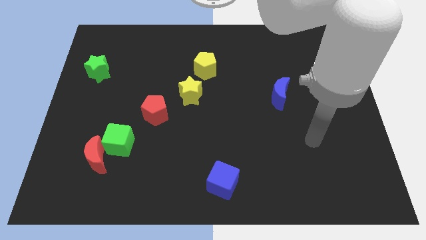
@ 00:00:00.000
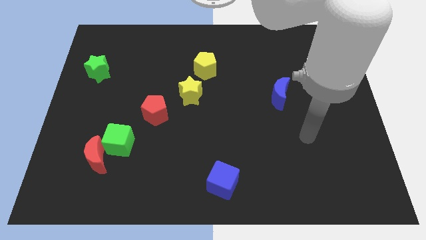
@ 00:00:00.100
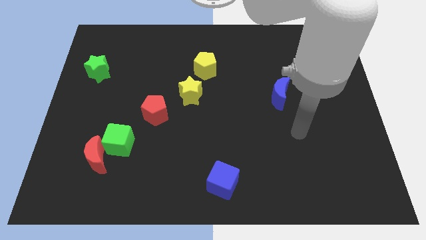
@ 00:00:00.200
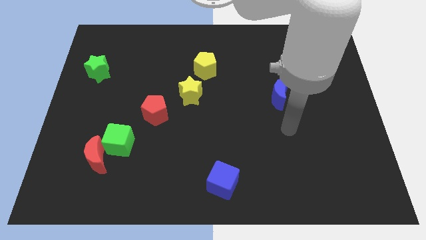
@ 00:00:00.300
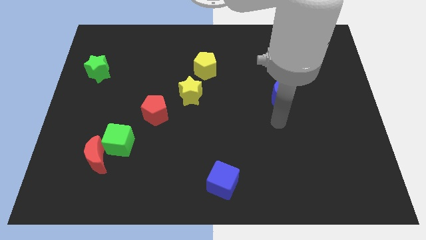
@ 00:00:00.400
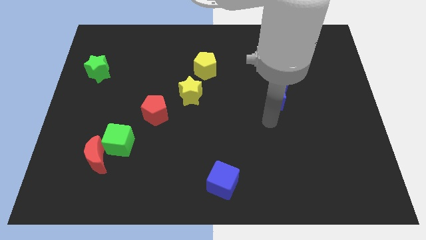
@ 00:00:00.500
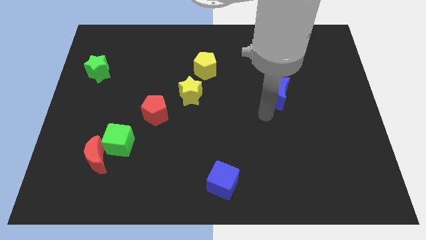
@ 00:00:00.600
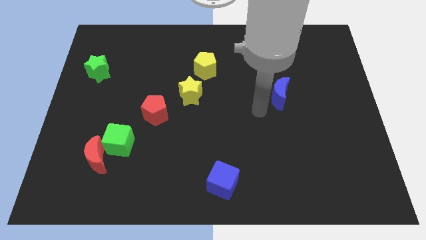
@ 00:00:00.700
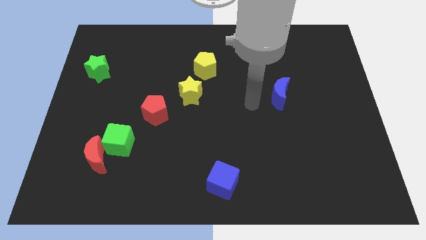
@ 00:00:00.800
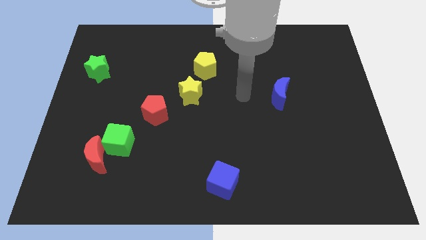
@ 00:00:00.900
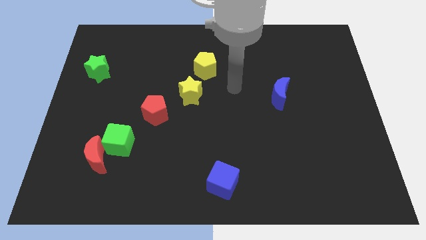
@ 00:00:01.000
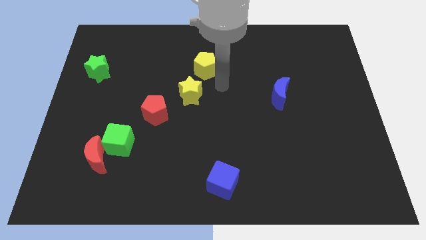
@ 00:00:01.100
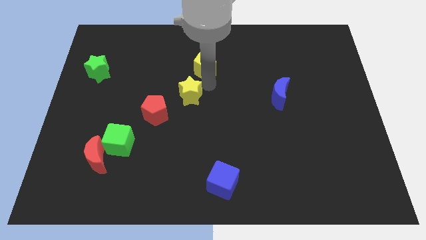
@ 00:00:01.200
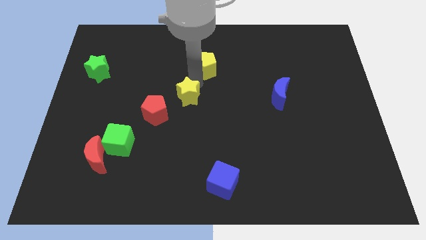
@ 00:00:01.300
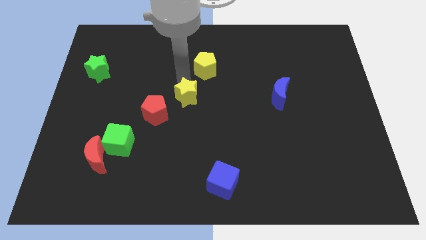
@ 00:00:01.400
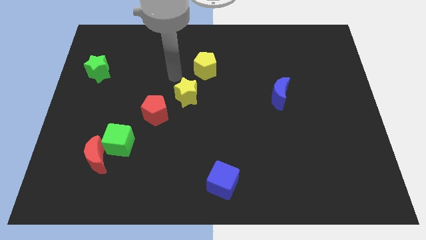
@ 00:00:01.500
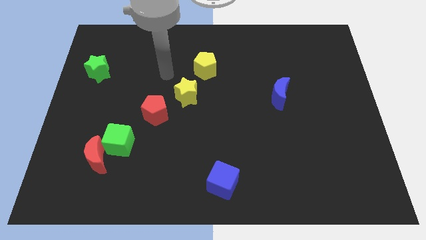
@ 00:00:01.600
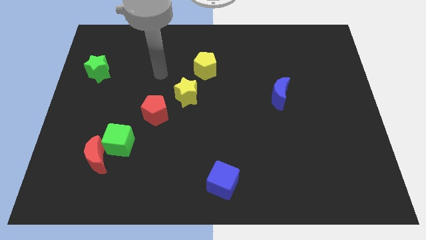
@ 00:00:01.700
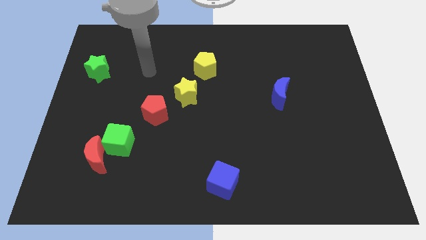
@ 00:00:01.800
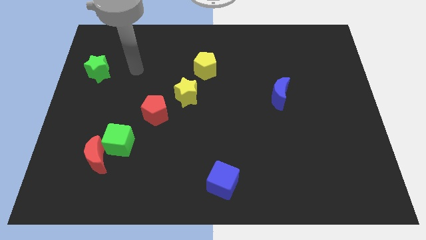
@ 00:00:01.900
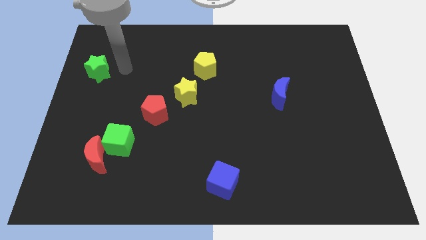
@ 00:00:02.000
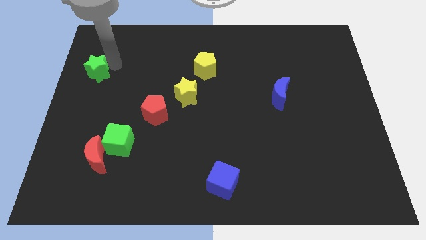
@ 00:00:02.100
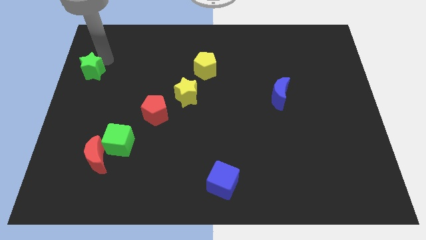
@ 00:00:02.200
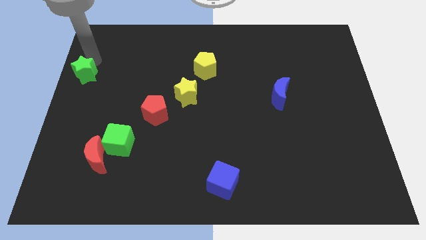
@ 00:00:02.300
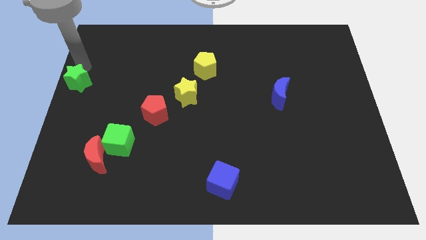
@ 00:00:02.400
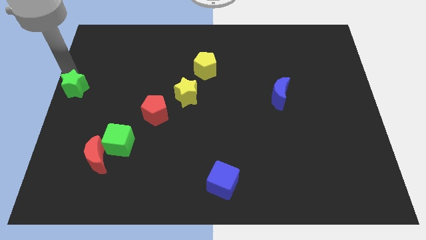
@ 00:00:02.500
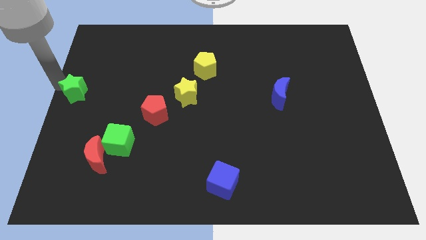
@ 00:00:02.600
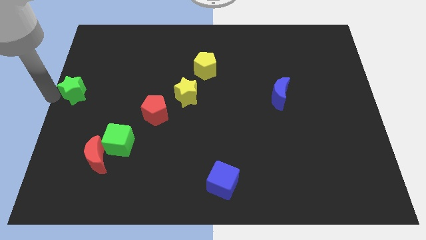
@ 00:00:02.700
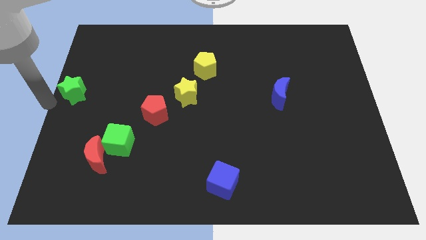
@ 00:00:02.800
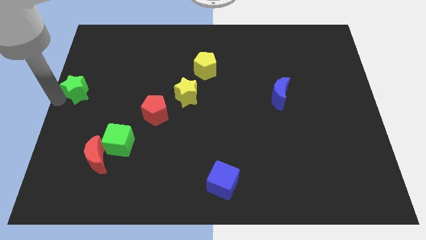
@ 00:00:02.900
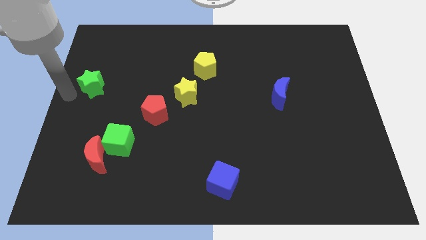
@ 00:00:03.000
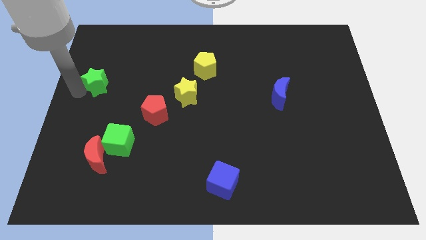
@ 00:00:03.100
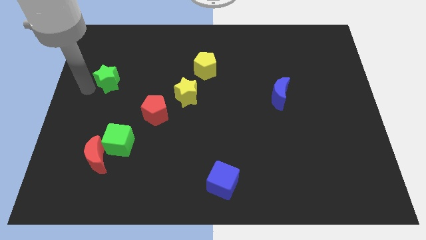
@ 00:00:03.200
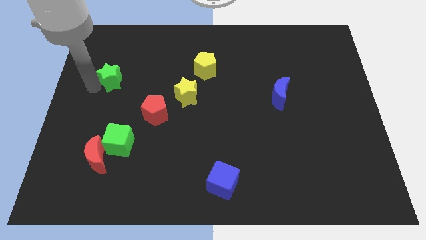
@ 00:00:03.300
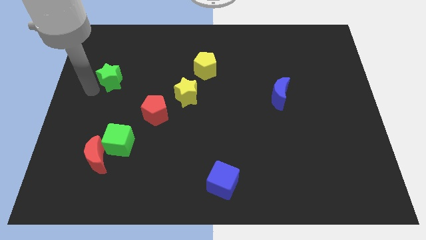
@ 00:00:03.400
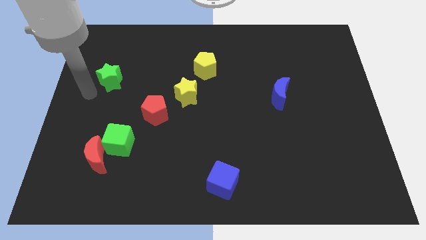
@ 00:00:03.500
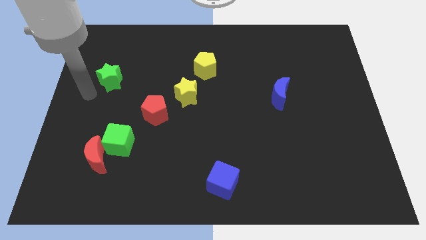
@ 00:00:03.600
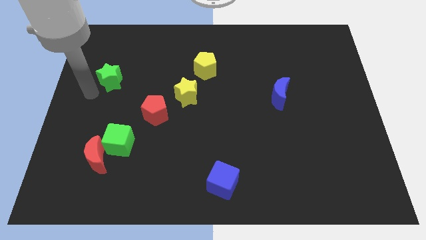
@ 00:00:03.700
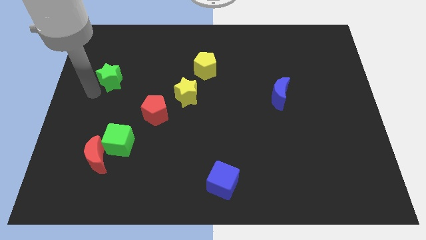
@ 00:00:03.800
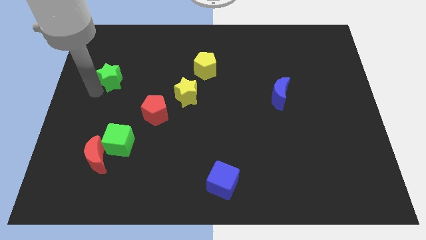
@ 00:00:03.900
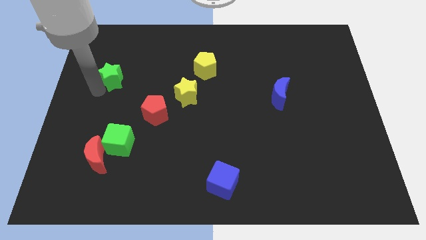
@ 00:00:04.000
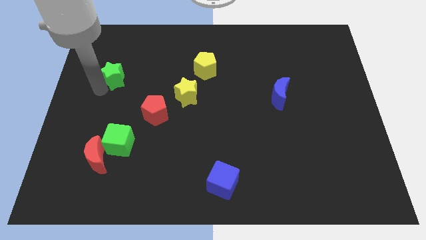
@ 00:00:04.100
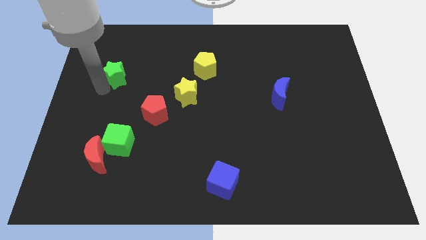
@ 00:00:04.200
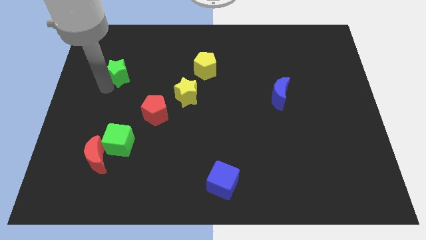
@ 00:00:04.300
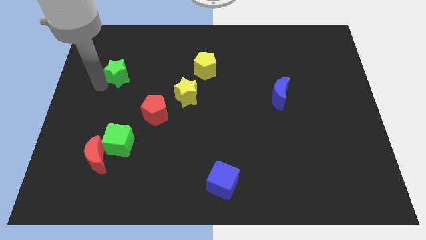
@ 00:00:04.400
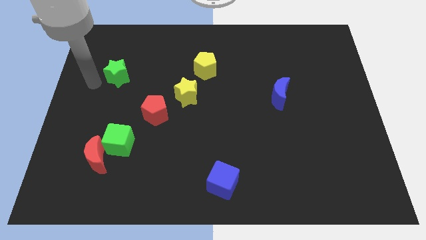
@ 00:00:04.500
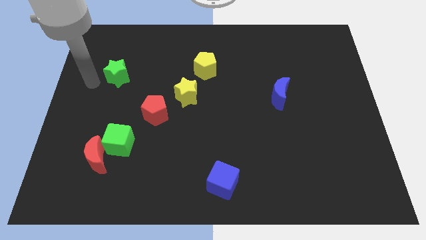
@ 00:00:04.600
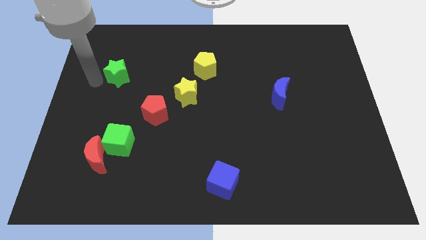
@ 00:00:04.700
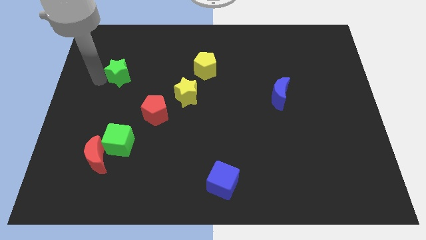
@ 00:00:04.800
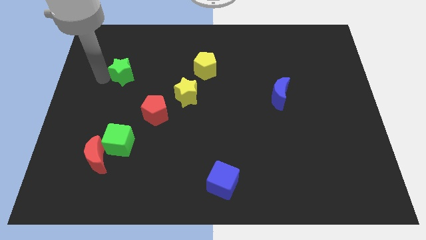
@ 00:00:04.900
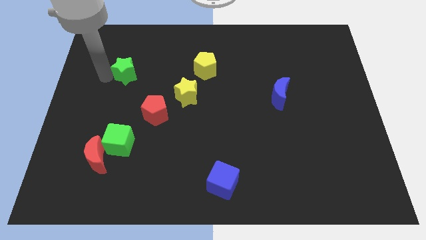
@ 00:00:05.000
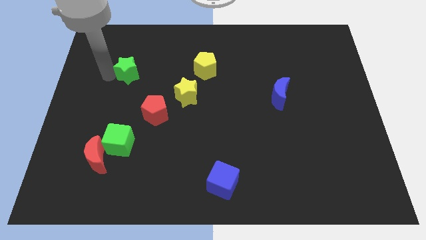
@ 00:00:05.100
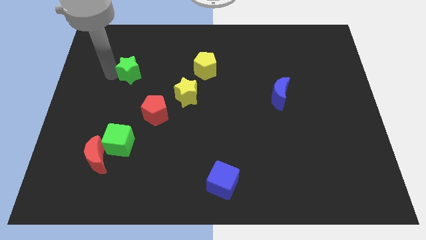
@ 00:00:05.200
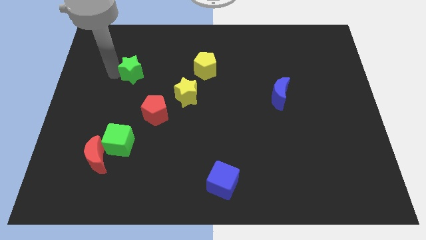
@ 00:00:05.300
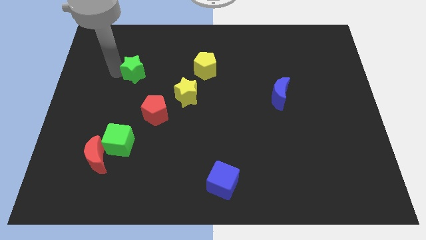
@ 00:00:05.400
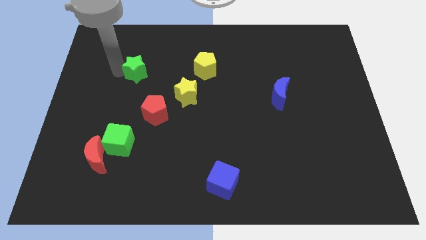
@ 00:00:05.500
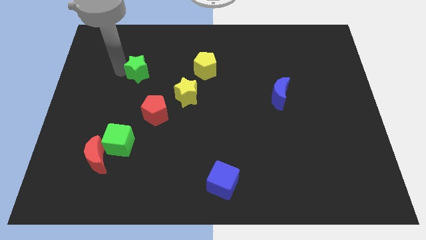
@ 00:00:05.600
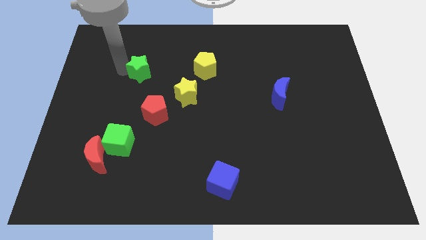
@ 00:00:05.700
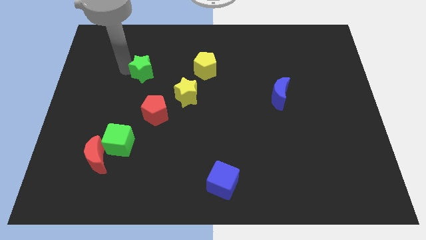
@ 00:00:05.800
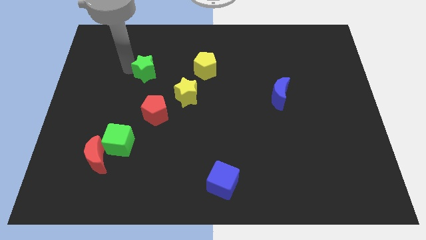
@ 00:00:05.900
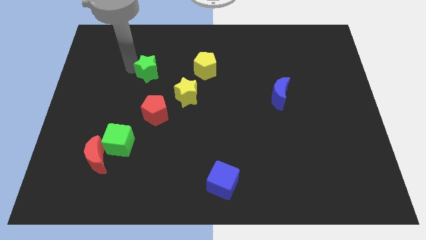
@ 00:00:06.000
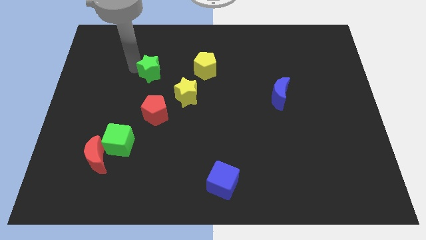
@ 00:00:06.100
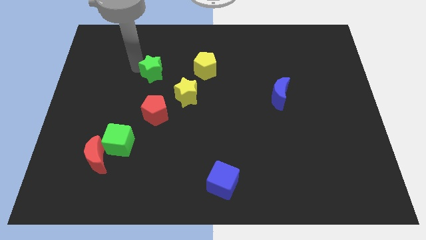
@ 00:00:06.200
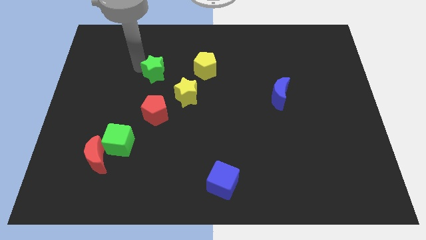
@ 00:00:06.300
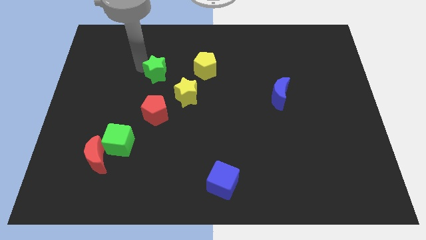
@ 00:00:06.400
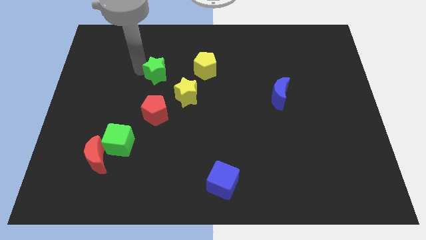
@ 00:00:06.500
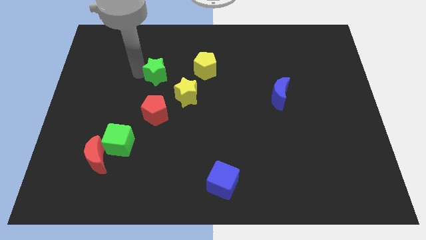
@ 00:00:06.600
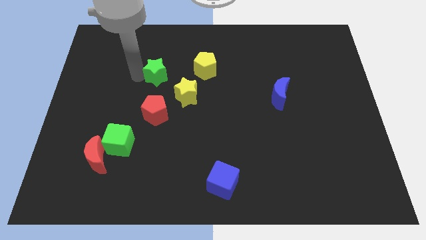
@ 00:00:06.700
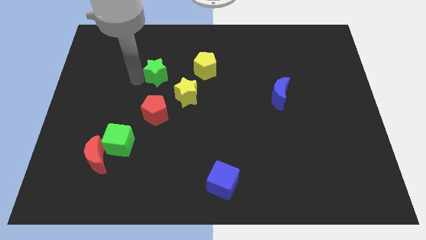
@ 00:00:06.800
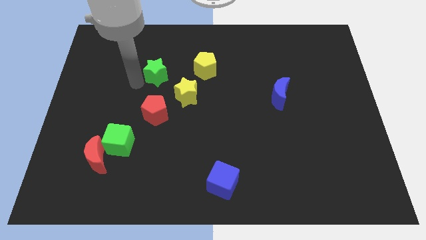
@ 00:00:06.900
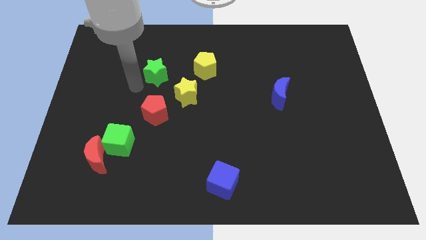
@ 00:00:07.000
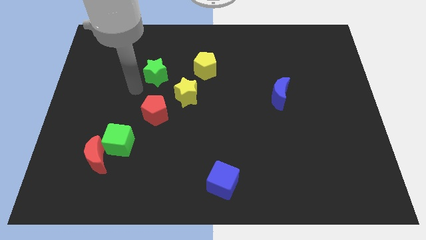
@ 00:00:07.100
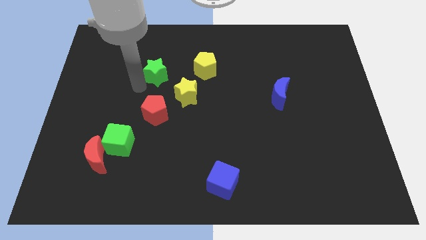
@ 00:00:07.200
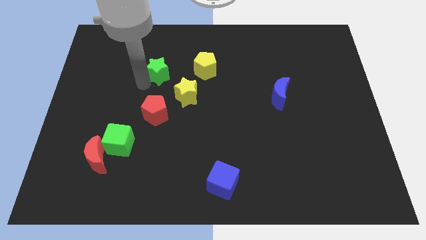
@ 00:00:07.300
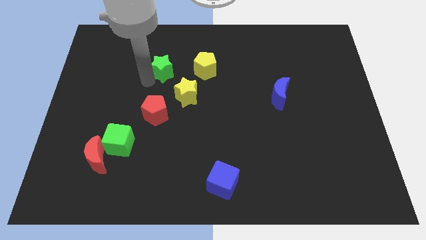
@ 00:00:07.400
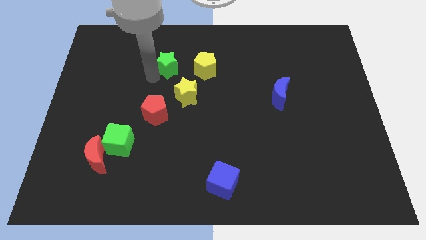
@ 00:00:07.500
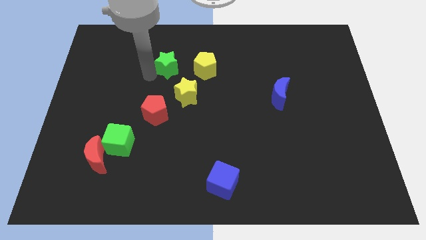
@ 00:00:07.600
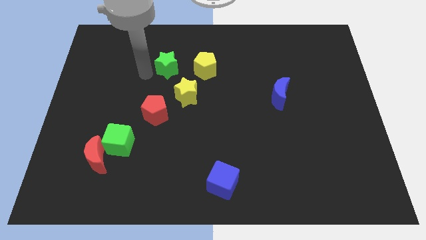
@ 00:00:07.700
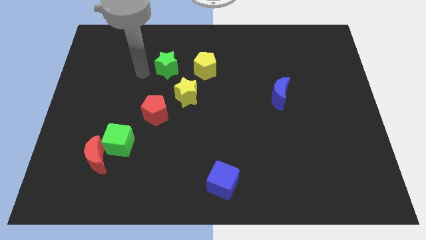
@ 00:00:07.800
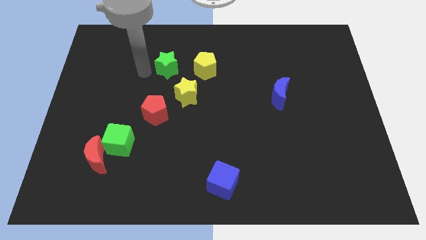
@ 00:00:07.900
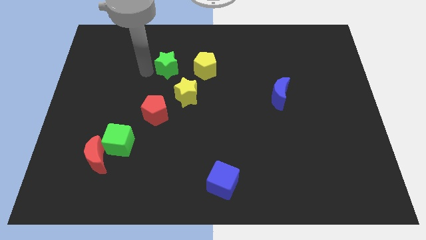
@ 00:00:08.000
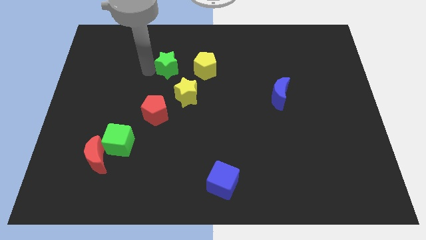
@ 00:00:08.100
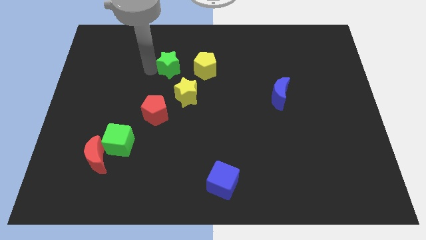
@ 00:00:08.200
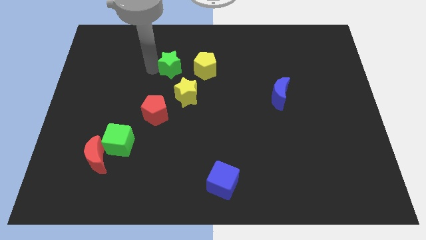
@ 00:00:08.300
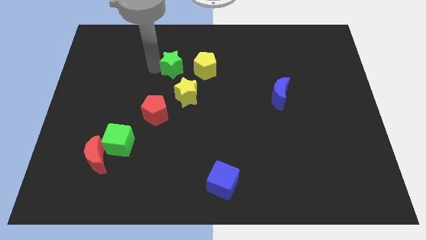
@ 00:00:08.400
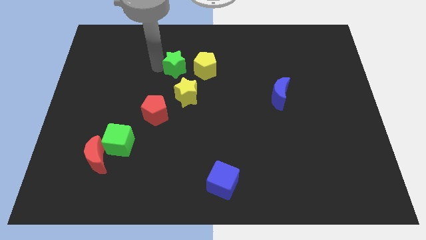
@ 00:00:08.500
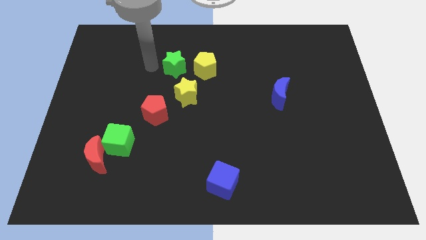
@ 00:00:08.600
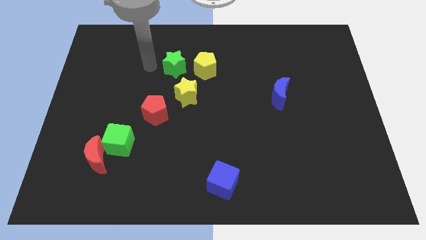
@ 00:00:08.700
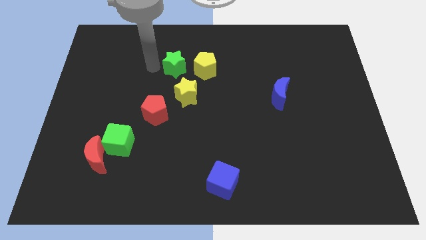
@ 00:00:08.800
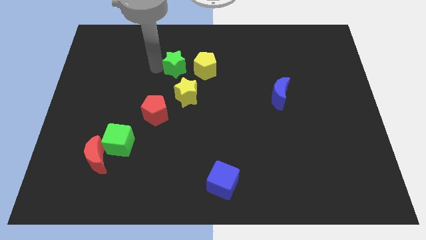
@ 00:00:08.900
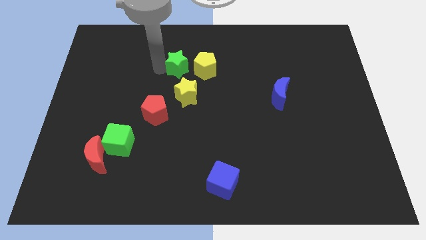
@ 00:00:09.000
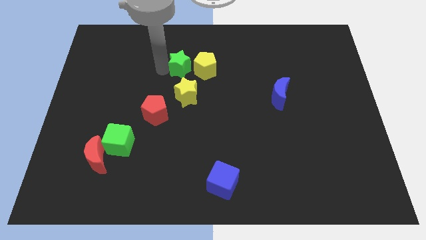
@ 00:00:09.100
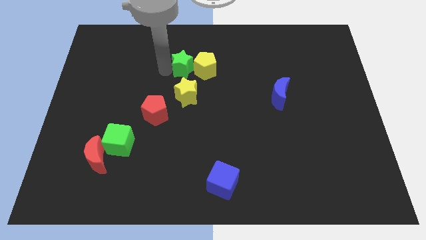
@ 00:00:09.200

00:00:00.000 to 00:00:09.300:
put the green star next to the yellow pentagon
